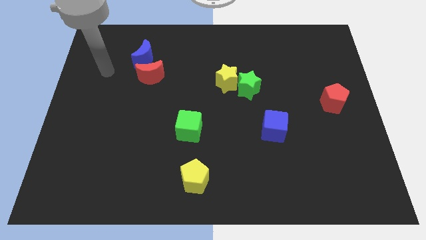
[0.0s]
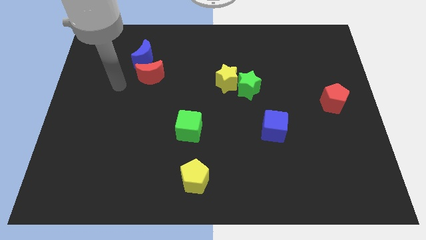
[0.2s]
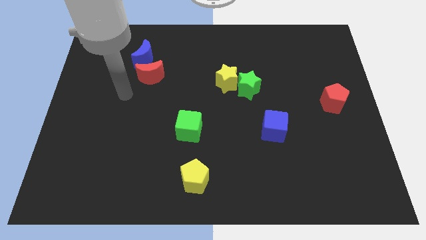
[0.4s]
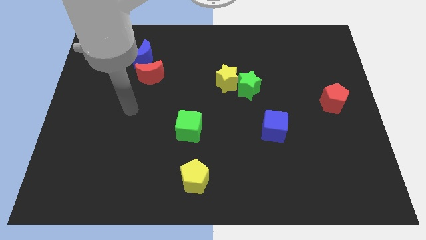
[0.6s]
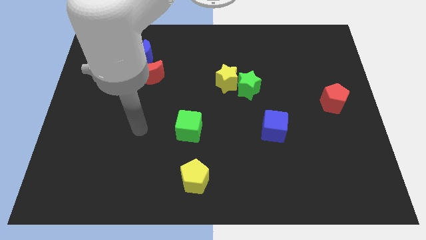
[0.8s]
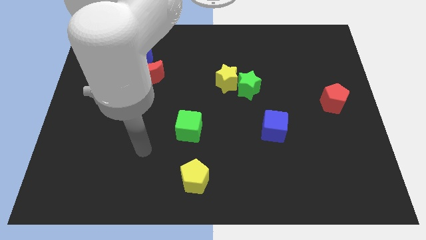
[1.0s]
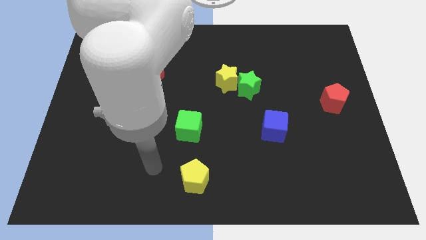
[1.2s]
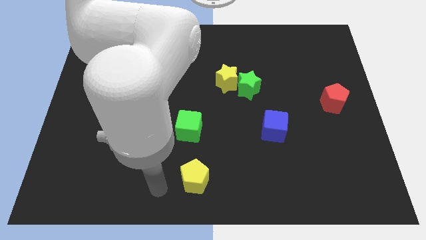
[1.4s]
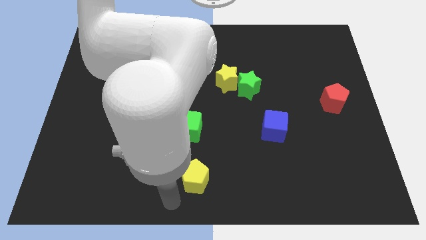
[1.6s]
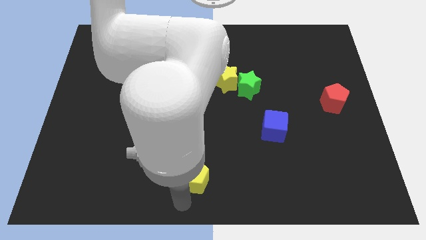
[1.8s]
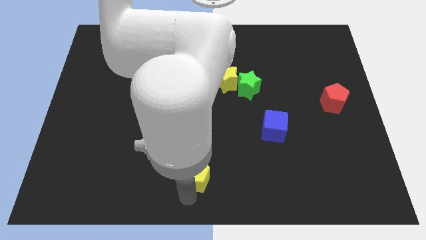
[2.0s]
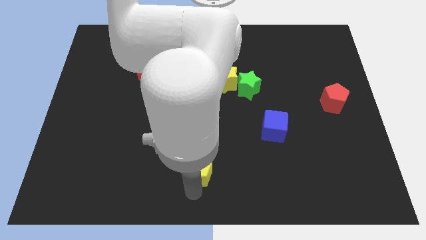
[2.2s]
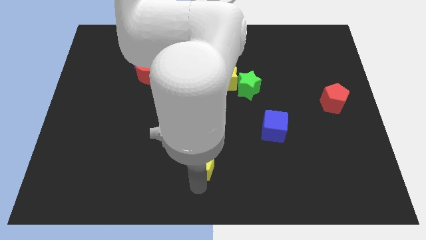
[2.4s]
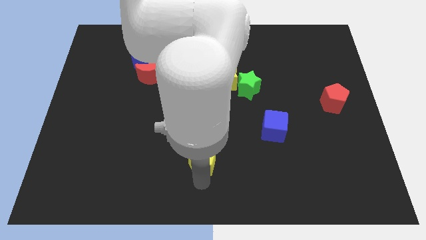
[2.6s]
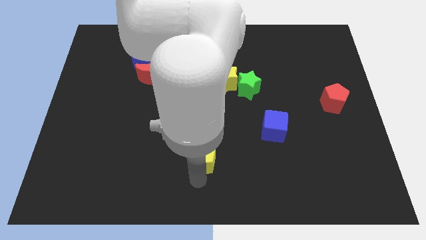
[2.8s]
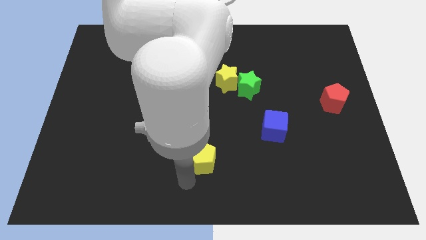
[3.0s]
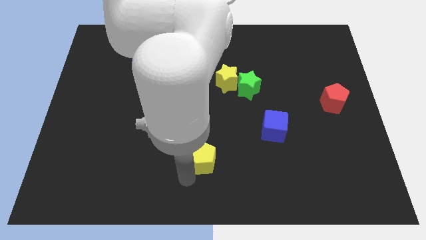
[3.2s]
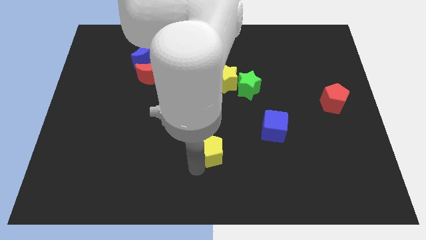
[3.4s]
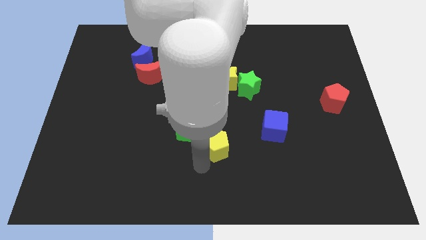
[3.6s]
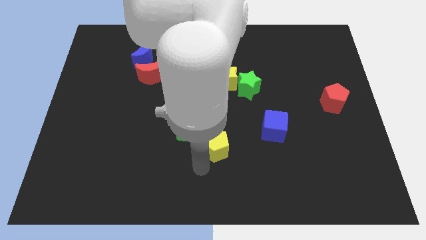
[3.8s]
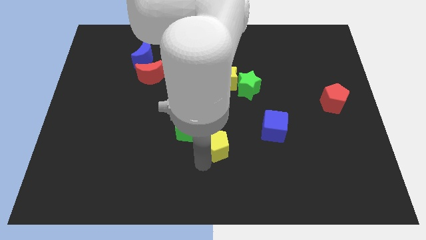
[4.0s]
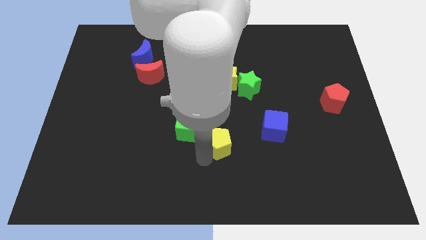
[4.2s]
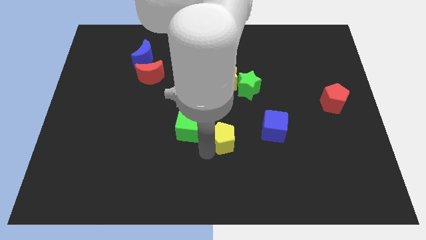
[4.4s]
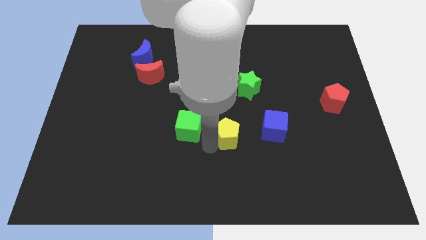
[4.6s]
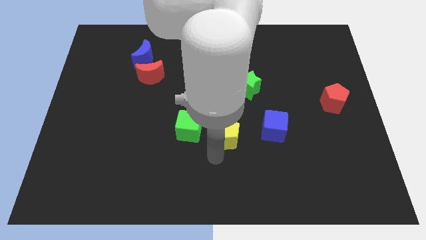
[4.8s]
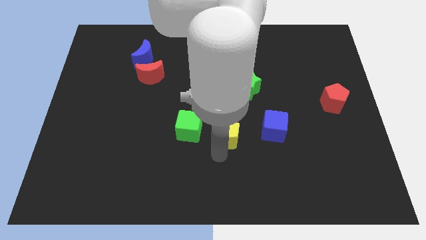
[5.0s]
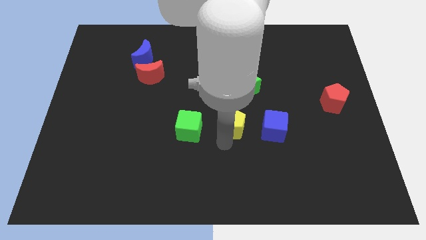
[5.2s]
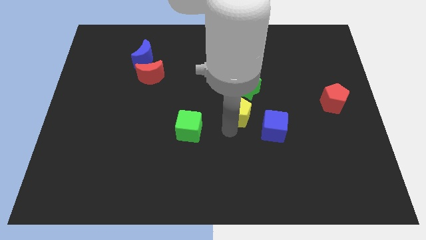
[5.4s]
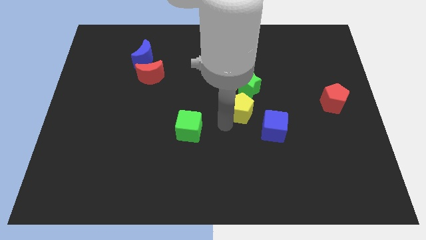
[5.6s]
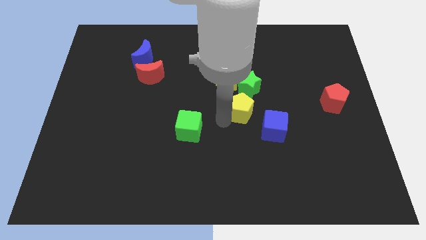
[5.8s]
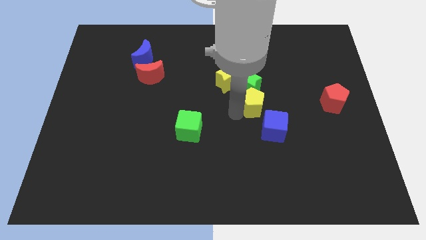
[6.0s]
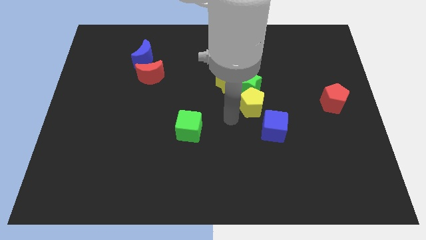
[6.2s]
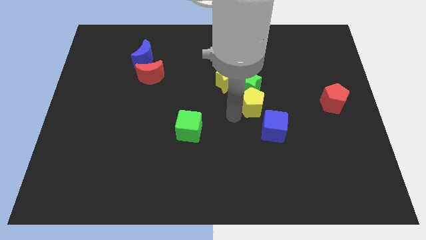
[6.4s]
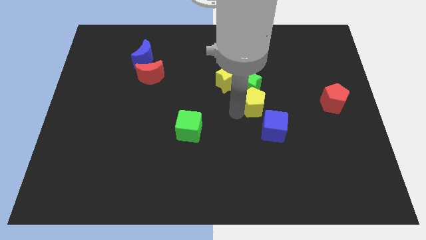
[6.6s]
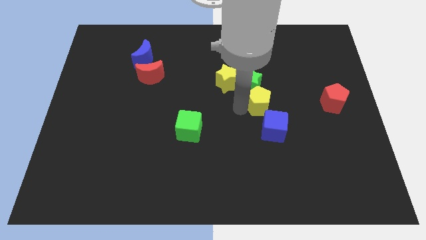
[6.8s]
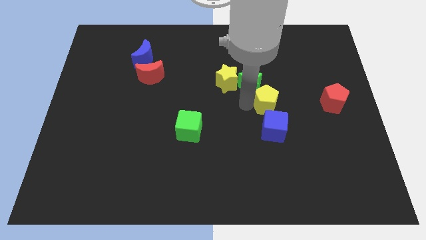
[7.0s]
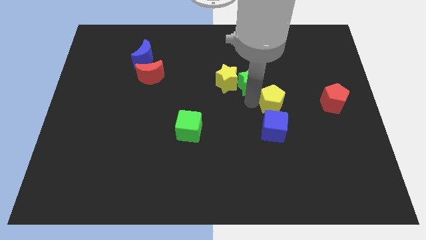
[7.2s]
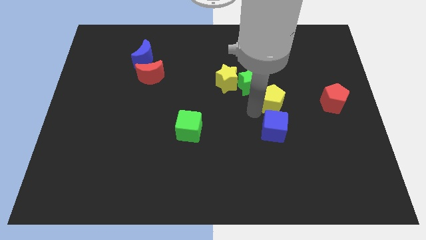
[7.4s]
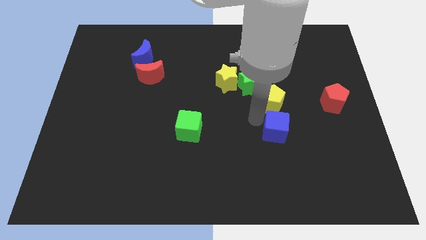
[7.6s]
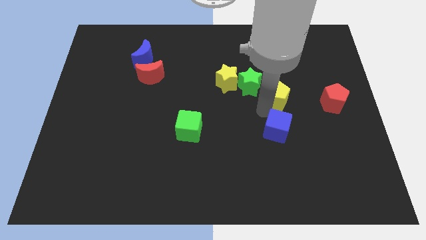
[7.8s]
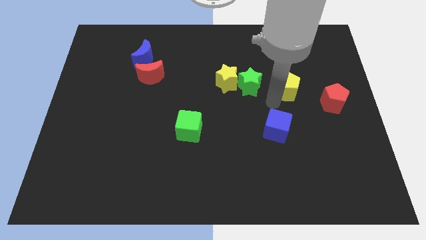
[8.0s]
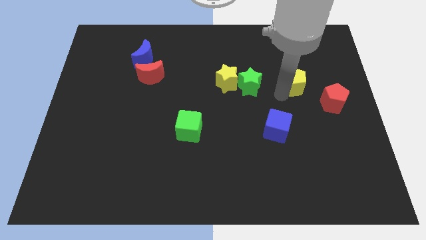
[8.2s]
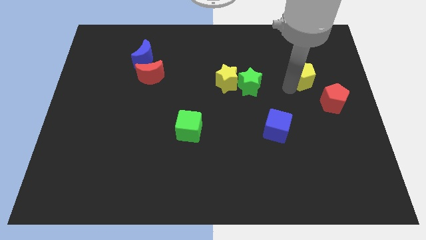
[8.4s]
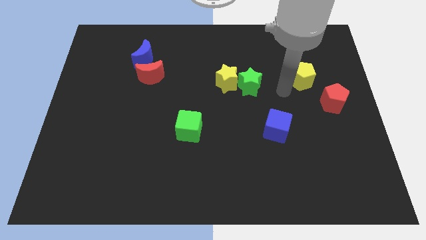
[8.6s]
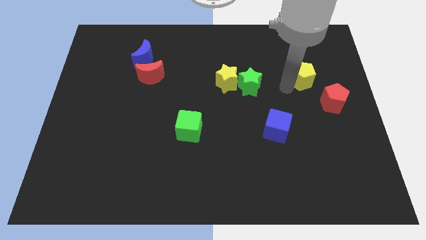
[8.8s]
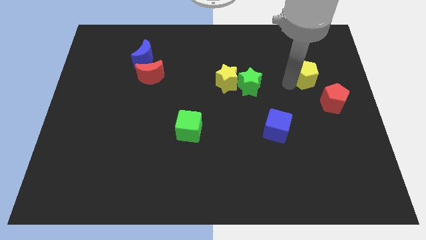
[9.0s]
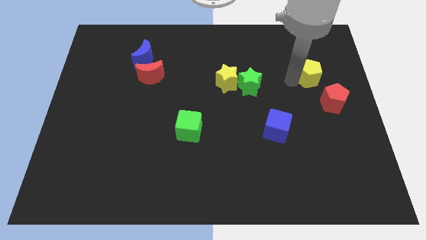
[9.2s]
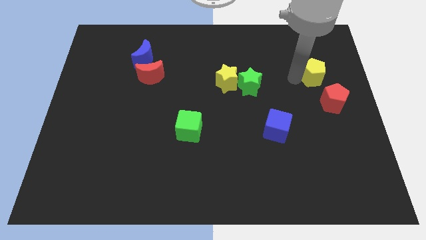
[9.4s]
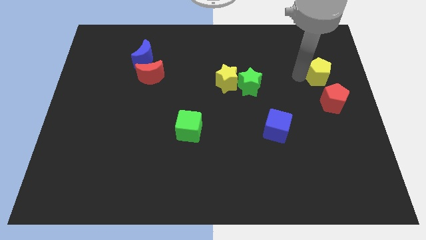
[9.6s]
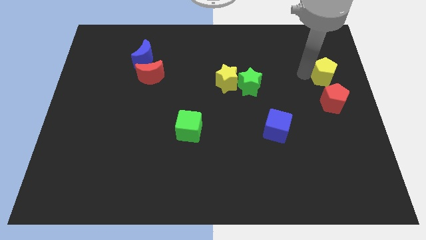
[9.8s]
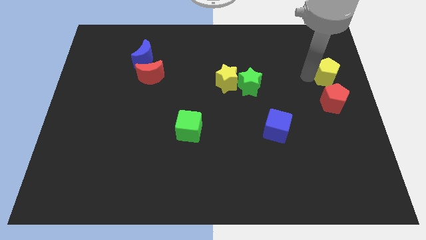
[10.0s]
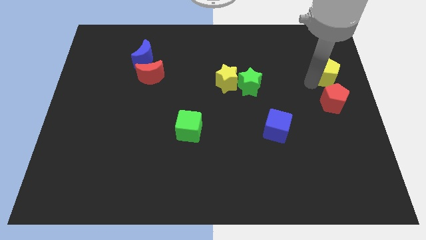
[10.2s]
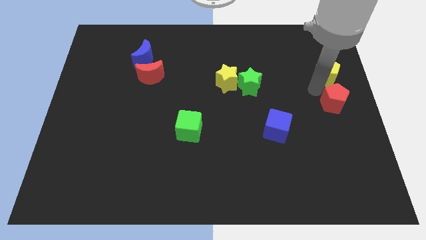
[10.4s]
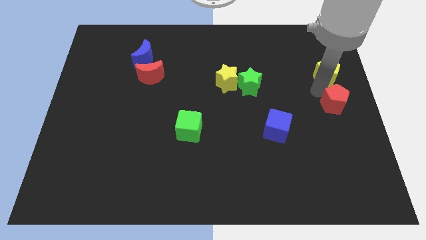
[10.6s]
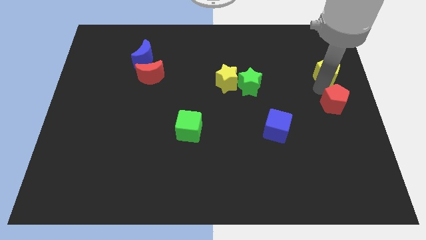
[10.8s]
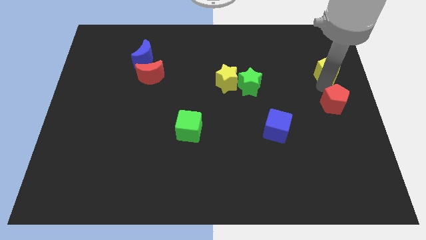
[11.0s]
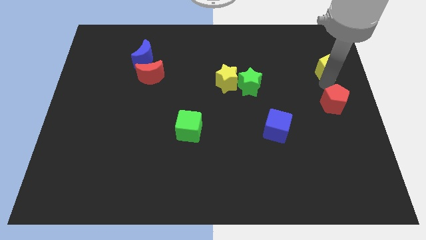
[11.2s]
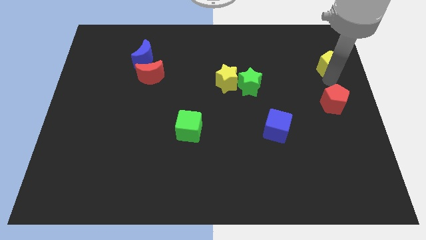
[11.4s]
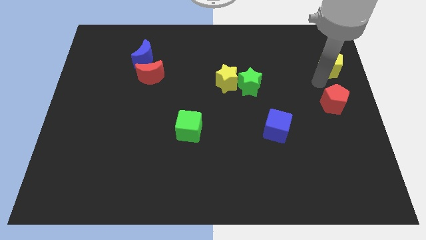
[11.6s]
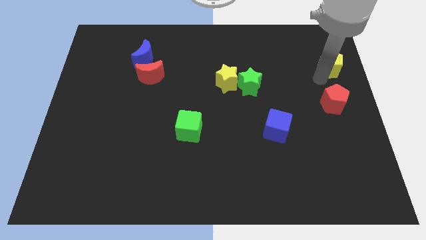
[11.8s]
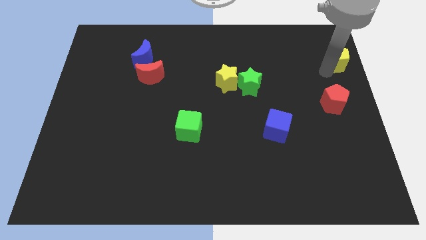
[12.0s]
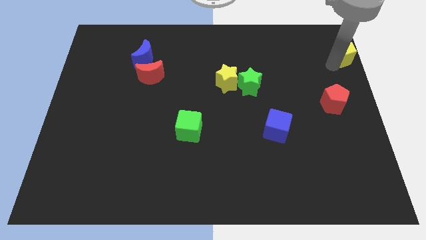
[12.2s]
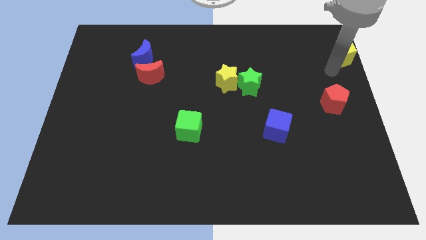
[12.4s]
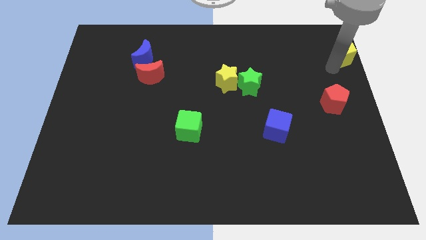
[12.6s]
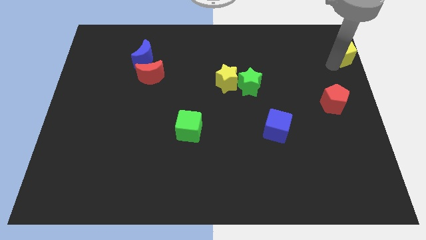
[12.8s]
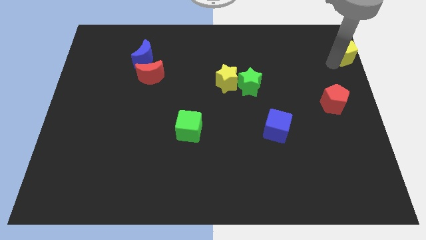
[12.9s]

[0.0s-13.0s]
push the yellow pentagon to the upper right corner
